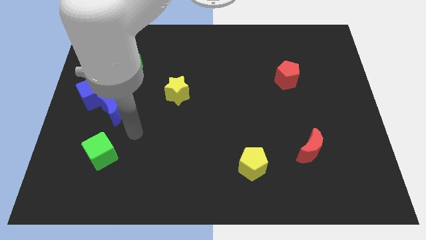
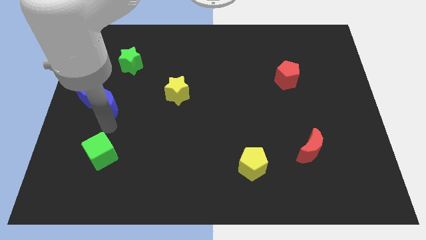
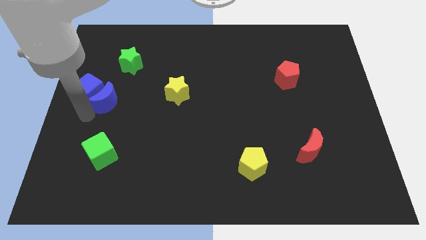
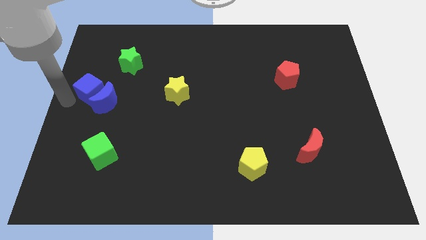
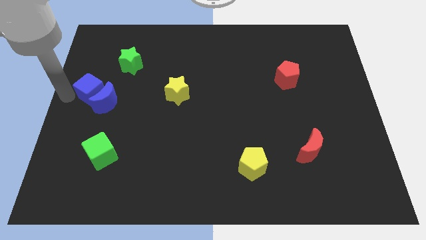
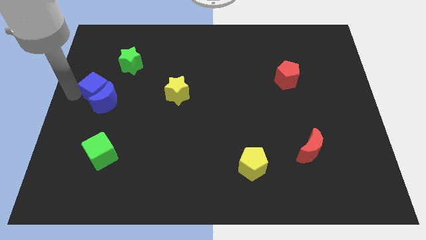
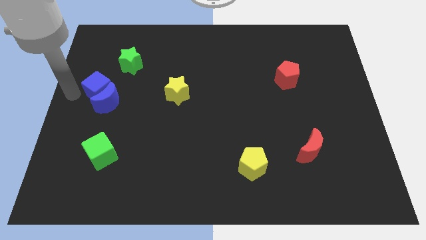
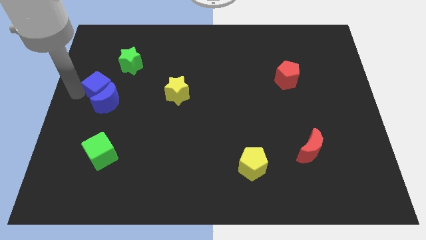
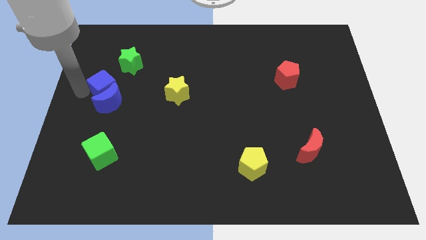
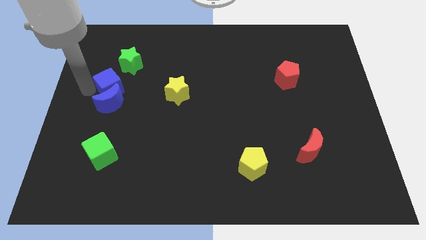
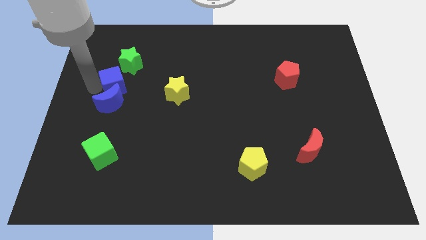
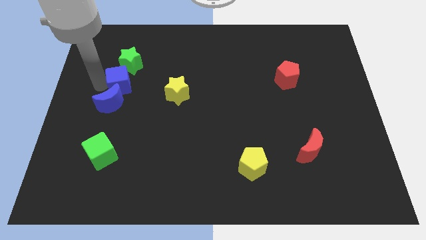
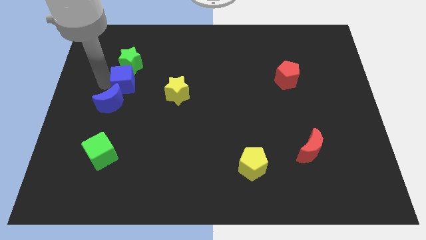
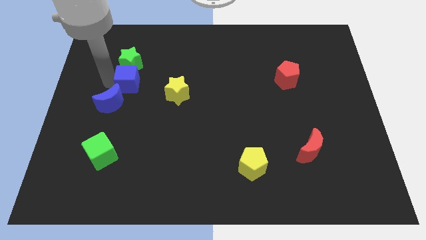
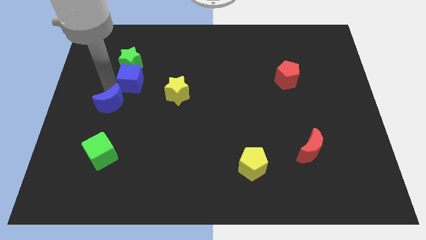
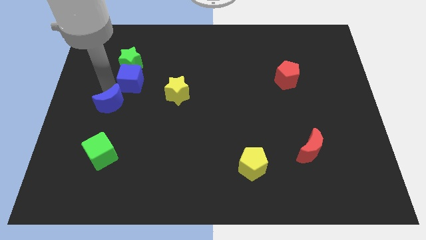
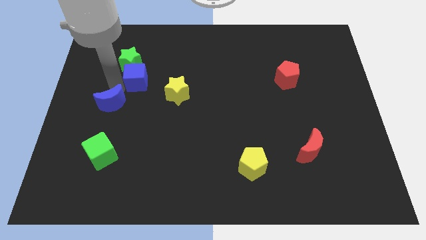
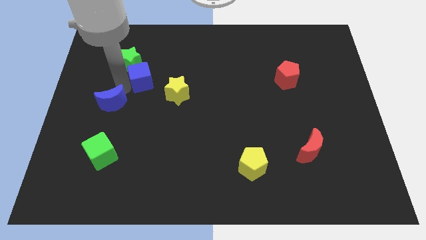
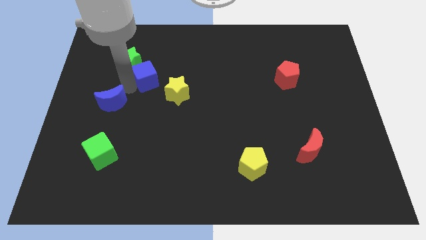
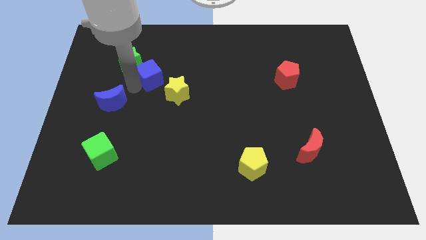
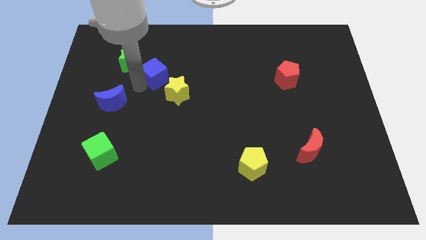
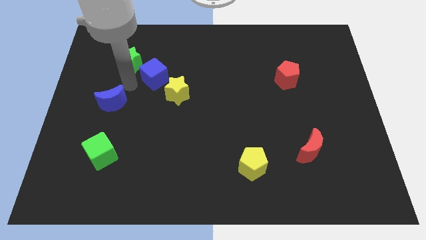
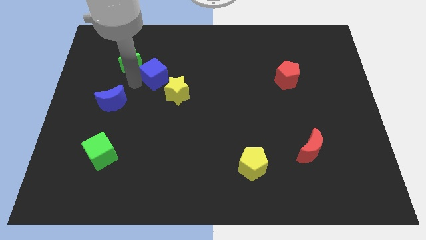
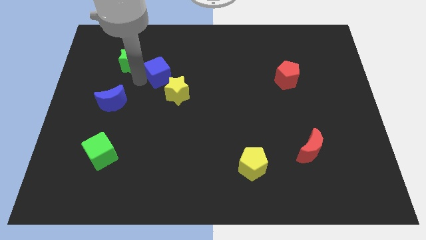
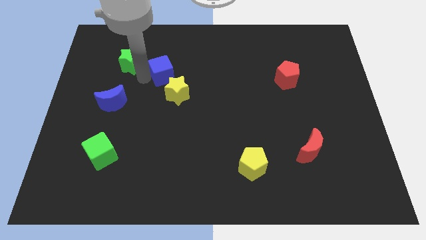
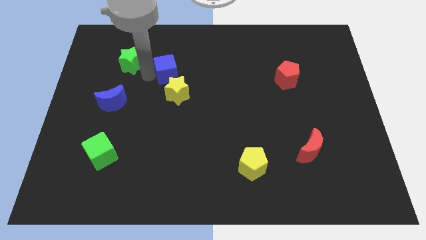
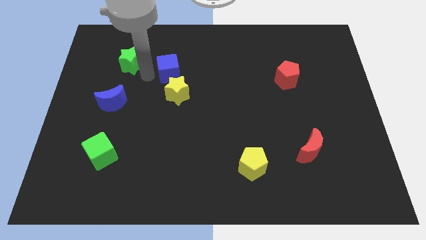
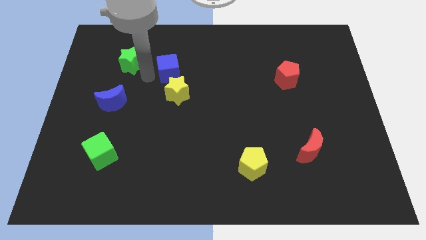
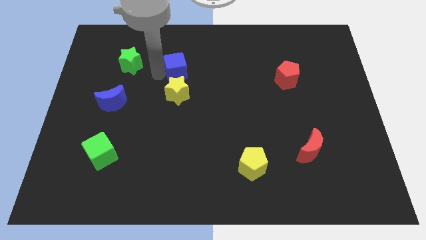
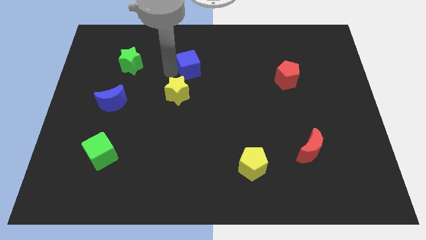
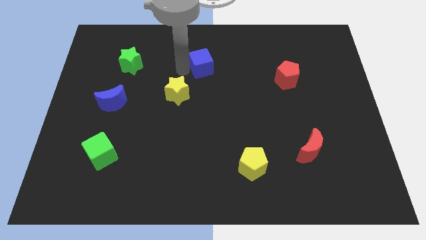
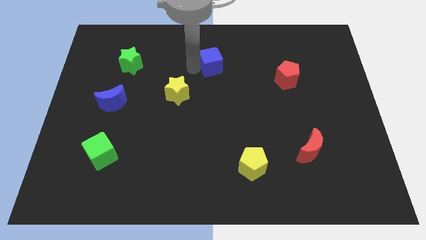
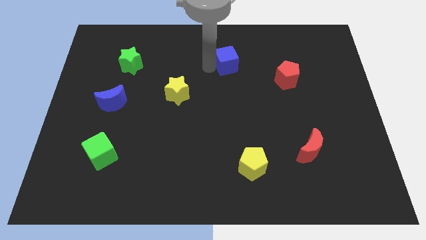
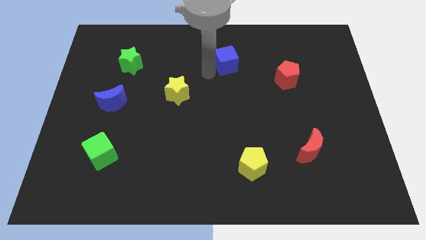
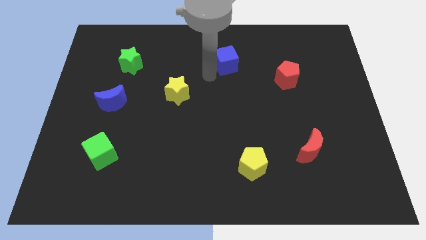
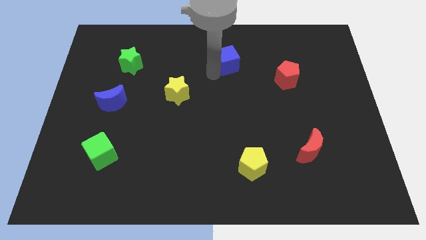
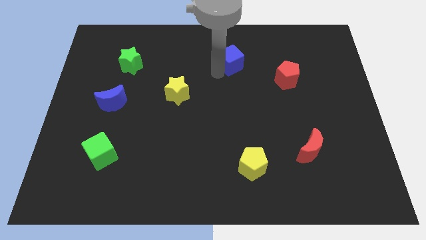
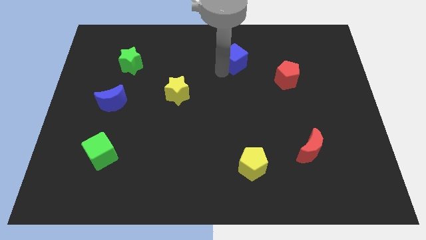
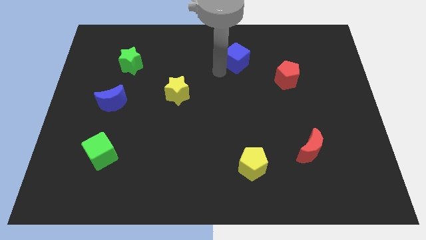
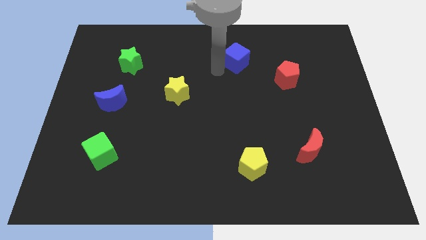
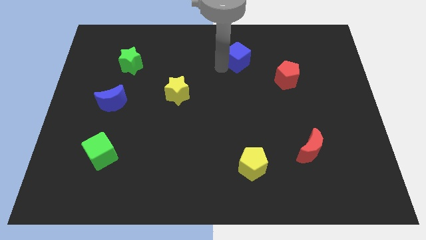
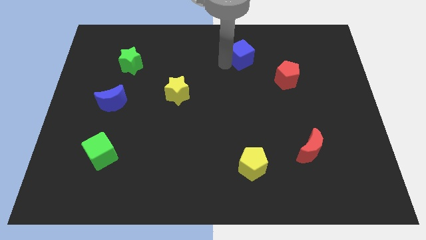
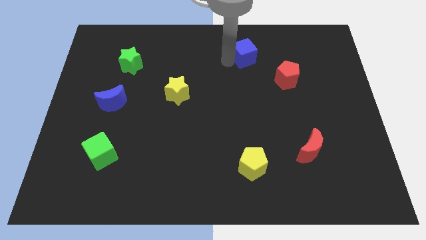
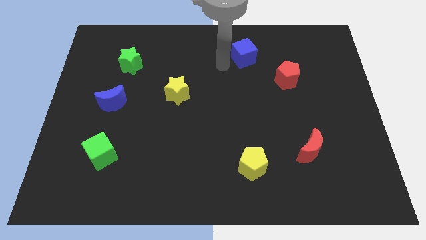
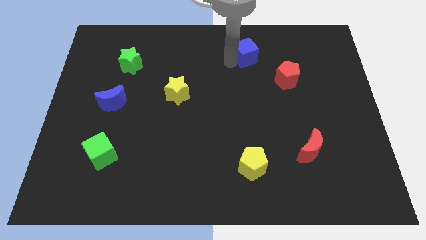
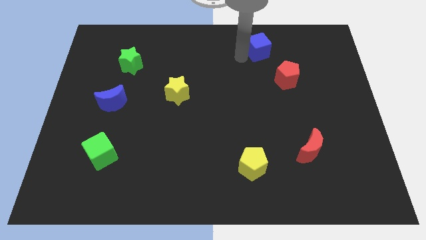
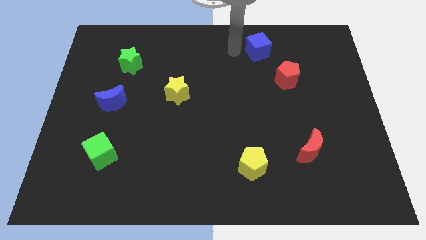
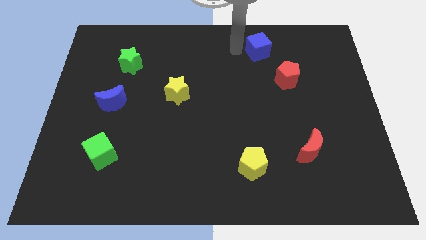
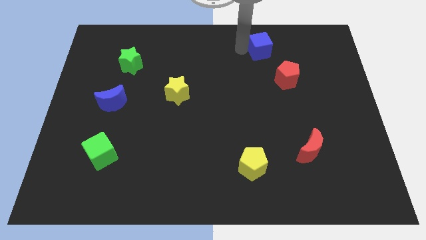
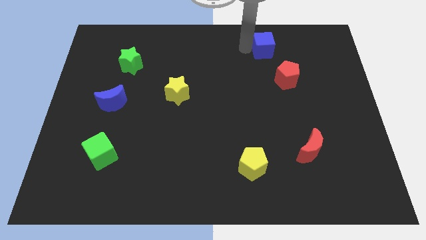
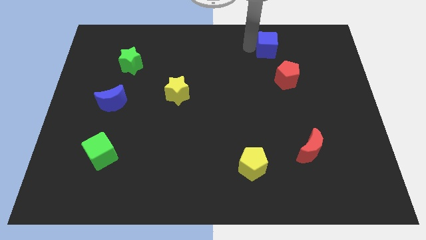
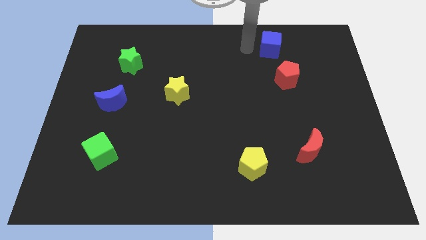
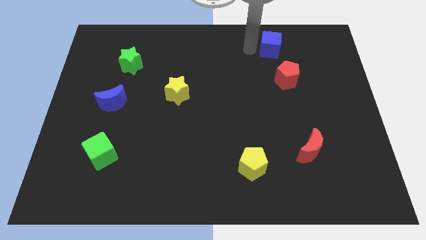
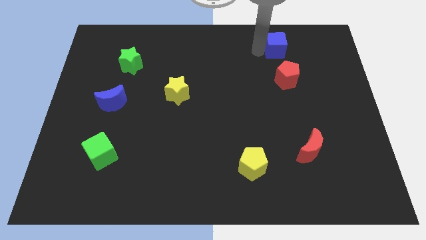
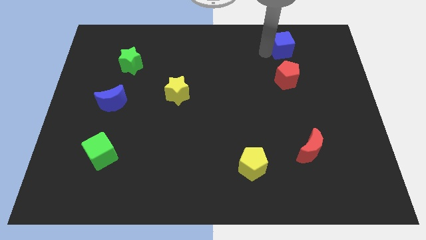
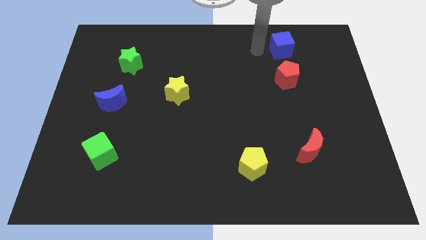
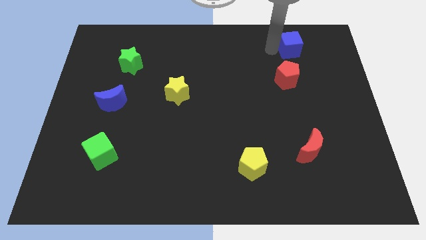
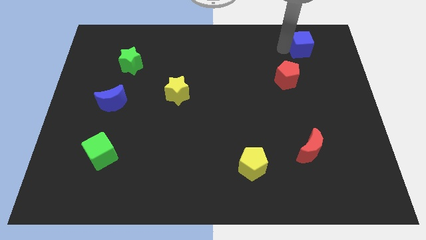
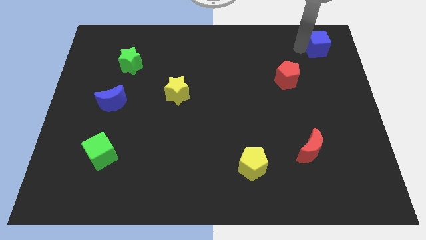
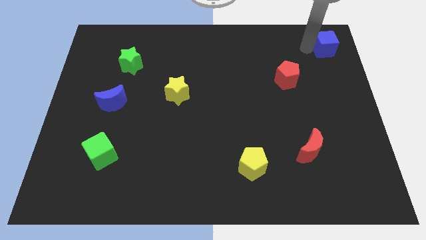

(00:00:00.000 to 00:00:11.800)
slide the blue cube to the top right corner

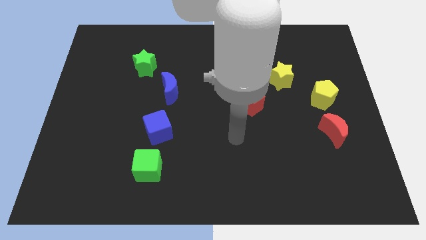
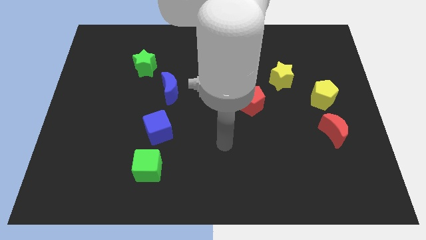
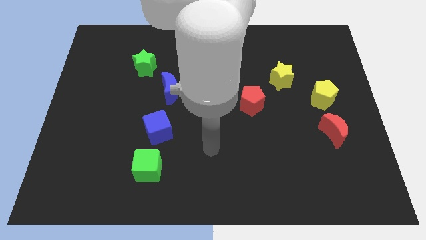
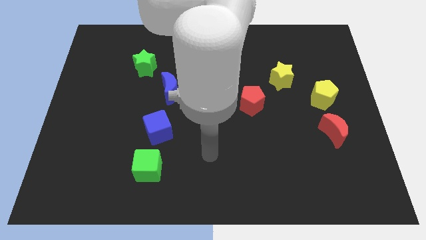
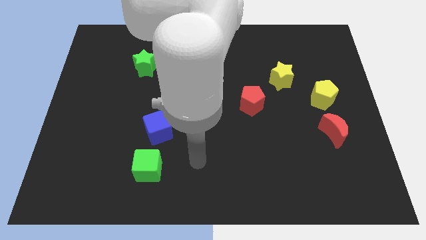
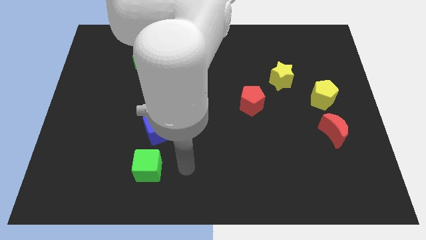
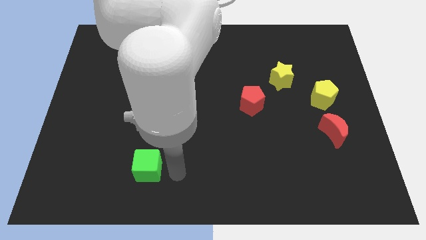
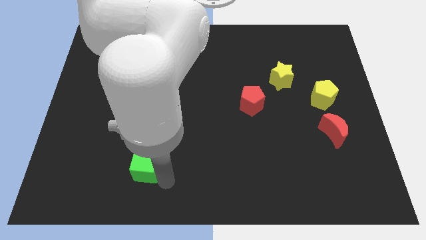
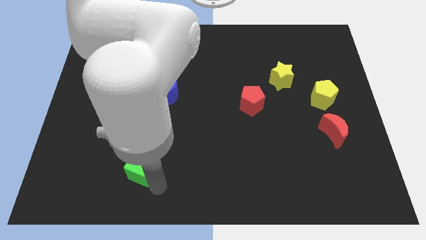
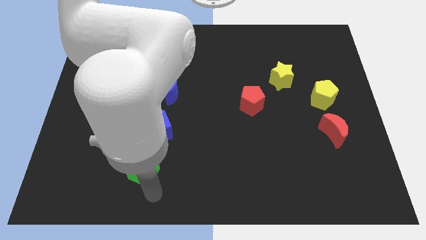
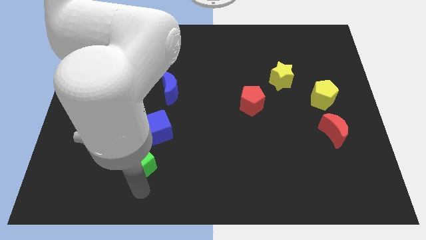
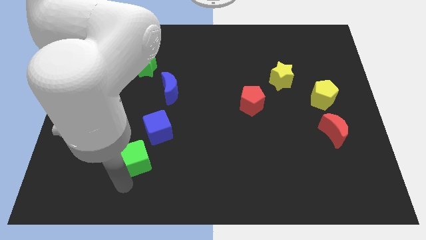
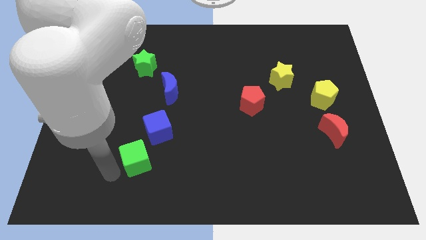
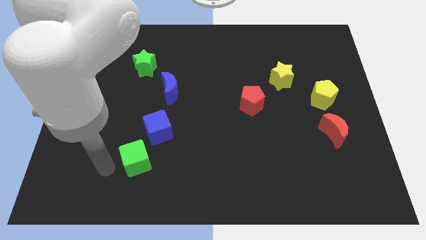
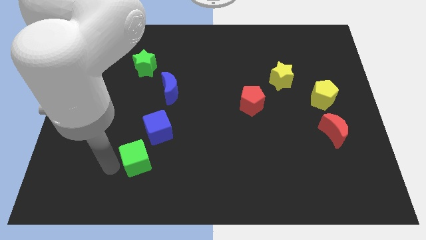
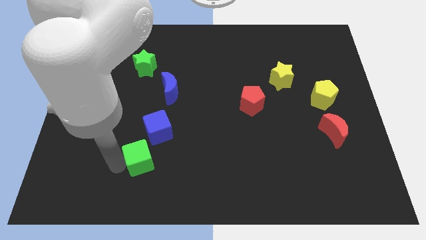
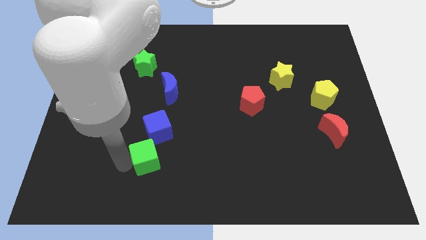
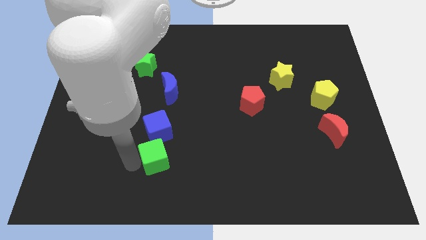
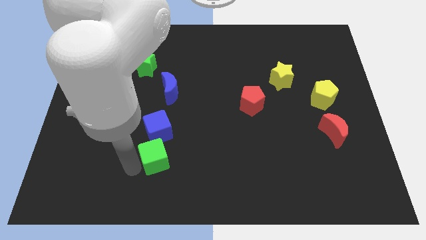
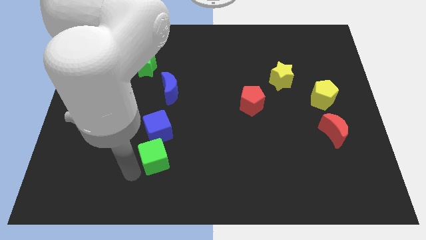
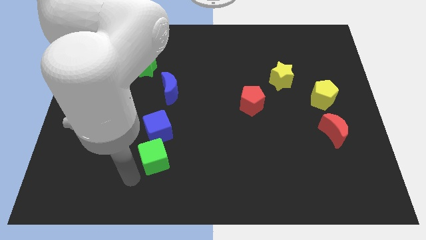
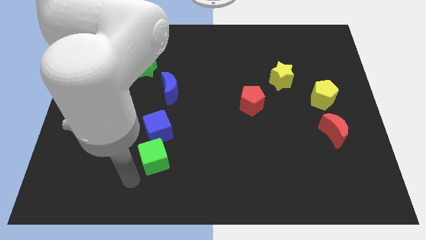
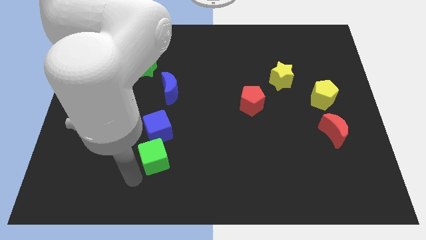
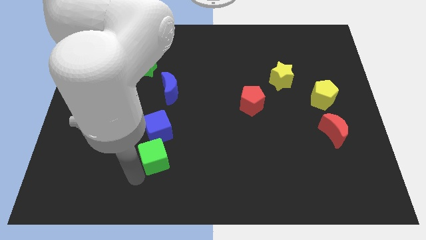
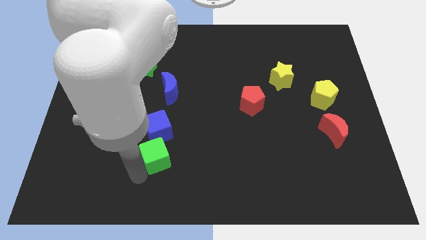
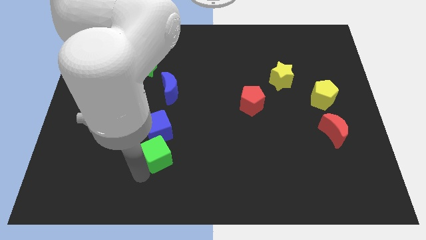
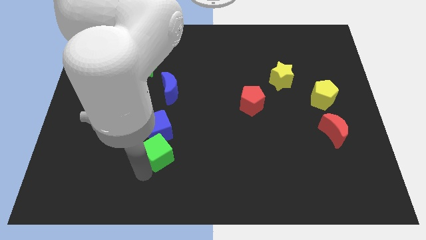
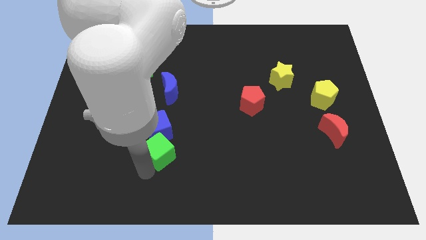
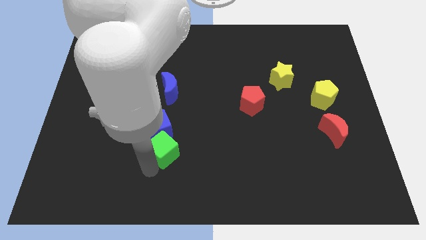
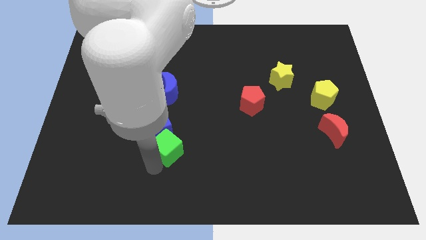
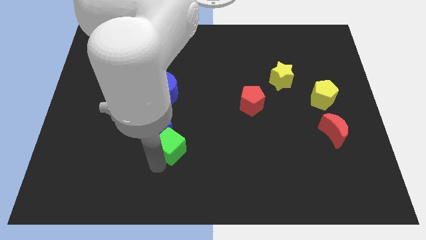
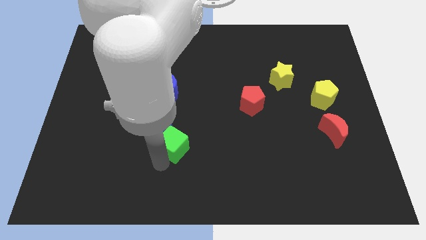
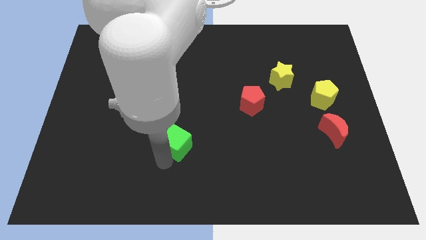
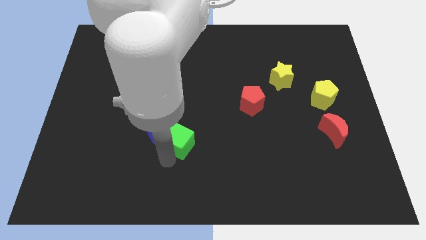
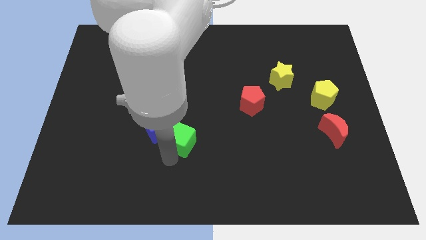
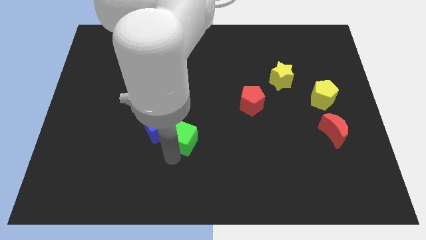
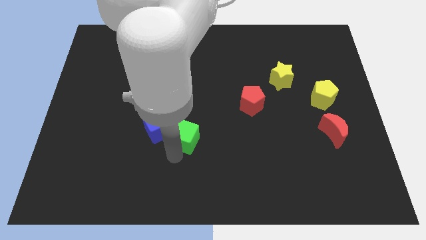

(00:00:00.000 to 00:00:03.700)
push the green cube to the center
